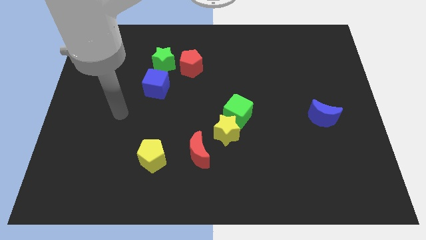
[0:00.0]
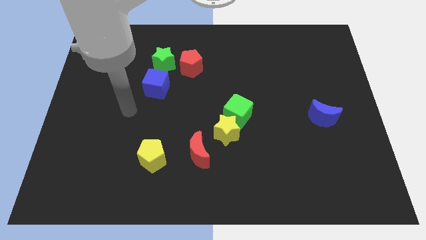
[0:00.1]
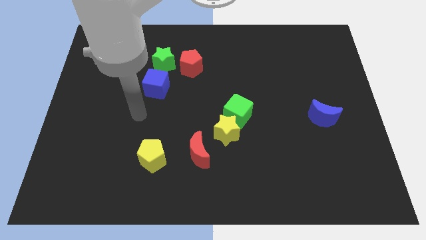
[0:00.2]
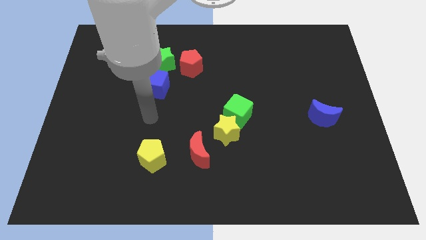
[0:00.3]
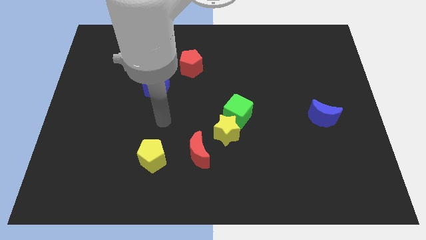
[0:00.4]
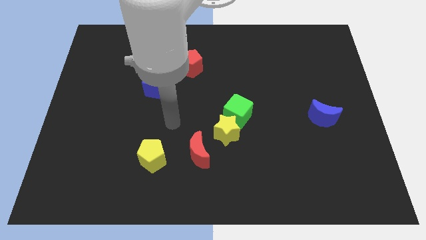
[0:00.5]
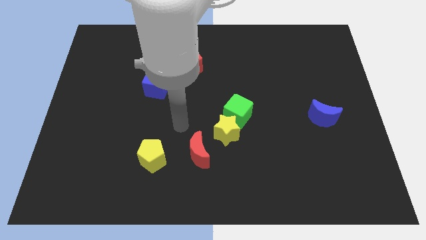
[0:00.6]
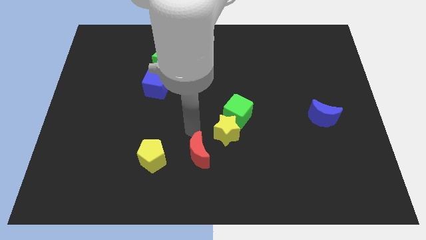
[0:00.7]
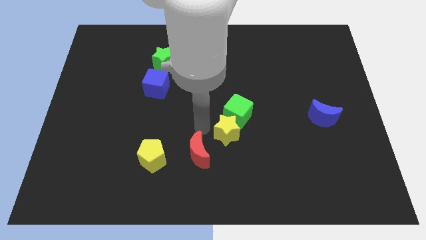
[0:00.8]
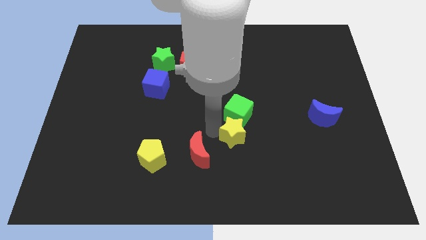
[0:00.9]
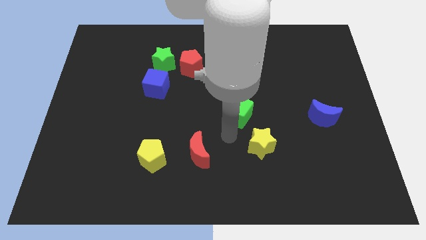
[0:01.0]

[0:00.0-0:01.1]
pull the green cube apart from the yellow star

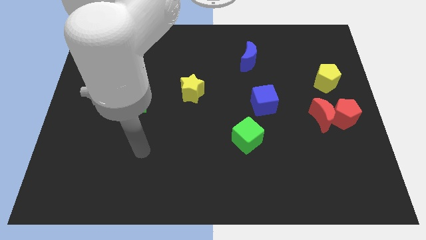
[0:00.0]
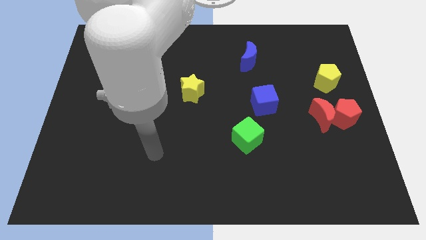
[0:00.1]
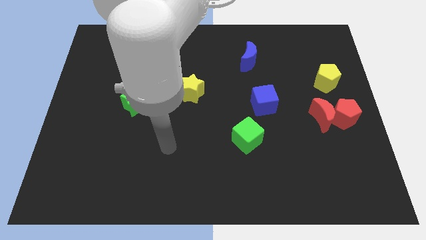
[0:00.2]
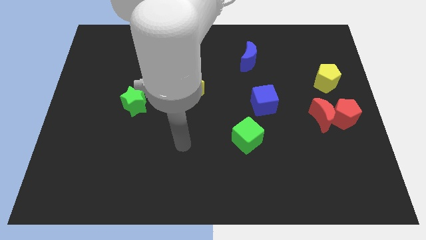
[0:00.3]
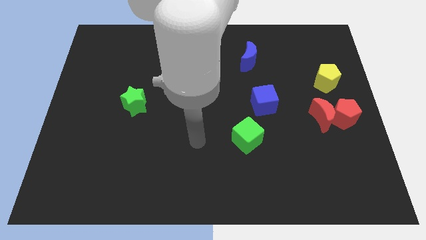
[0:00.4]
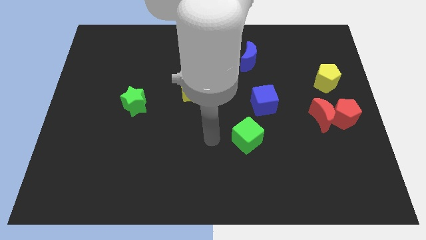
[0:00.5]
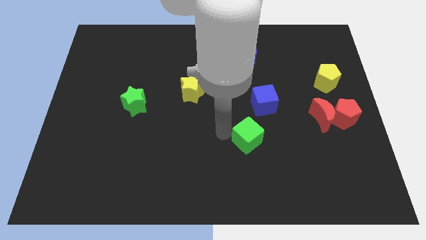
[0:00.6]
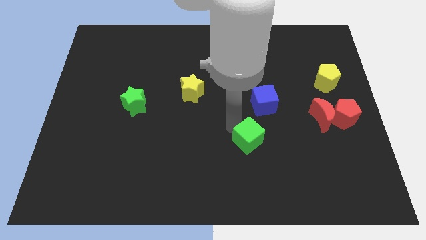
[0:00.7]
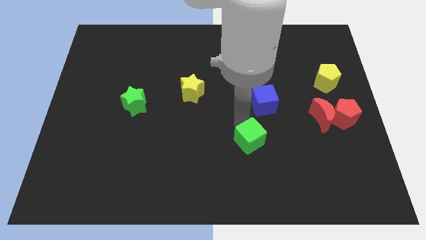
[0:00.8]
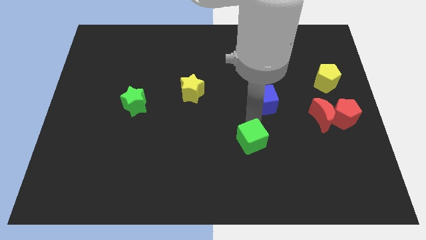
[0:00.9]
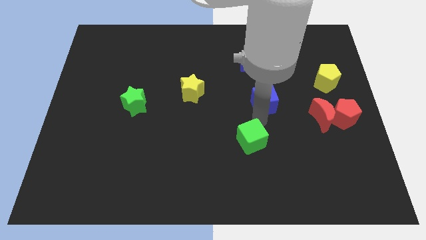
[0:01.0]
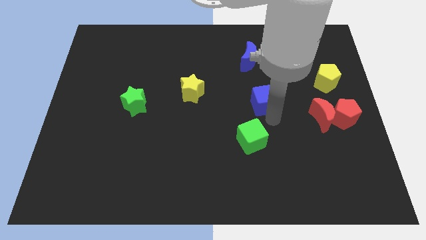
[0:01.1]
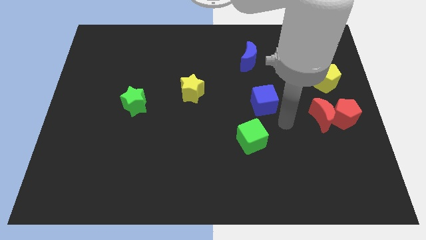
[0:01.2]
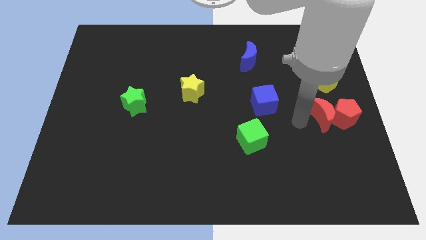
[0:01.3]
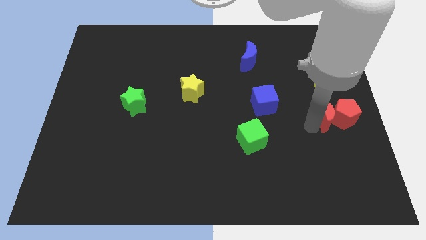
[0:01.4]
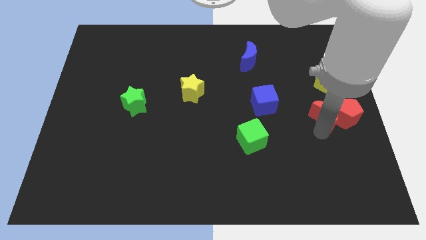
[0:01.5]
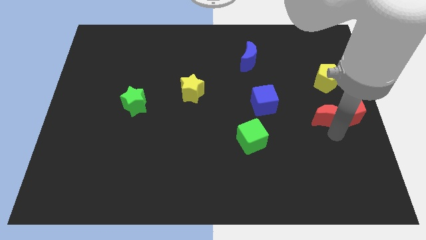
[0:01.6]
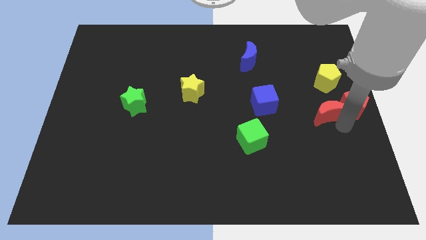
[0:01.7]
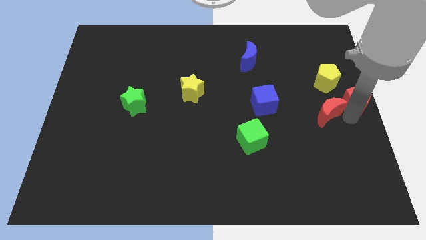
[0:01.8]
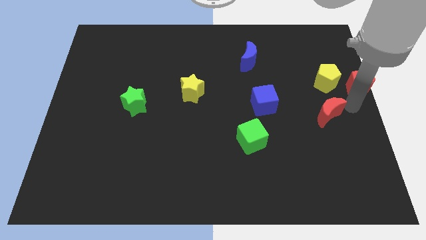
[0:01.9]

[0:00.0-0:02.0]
pull the red moon apart from the red pentagon

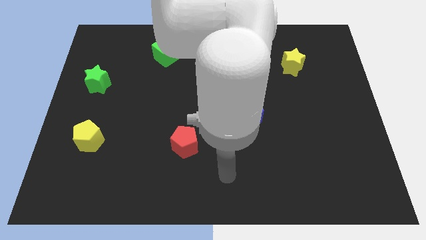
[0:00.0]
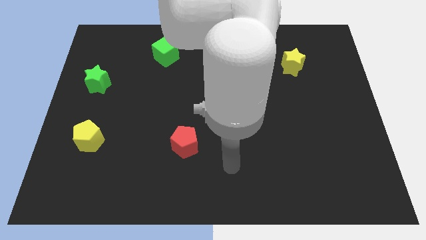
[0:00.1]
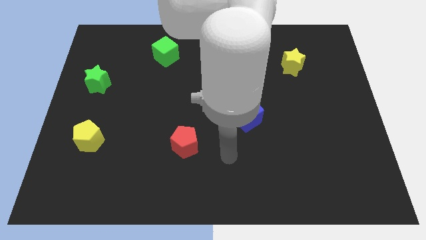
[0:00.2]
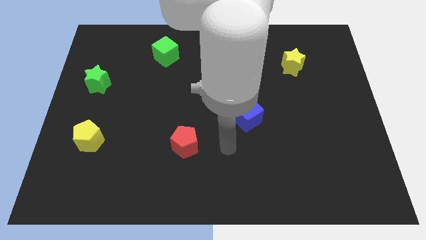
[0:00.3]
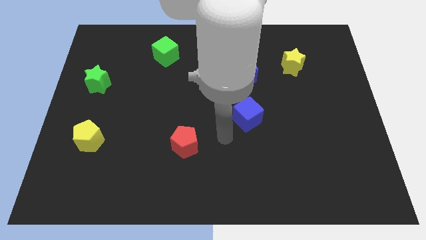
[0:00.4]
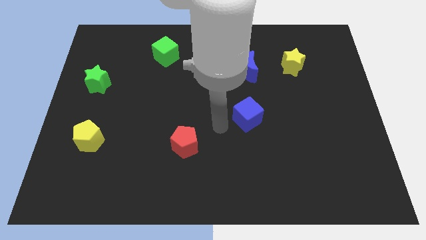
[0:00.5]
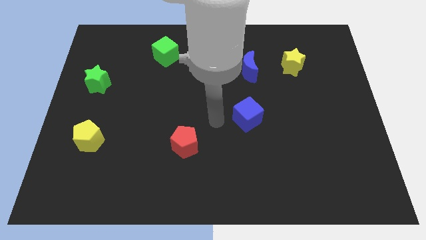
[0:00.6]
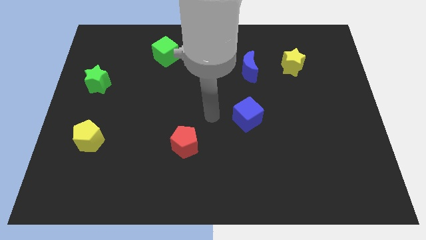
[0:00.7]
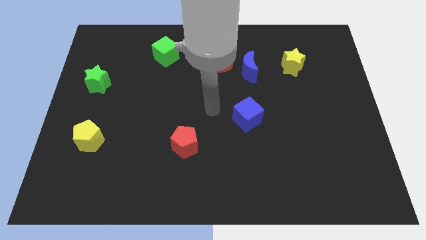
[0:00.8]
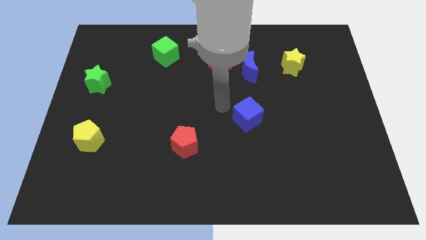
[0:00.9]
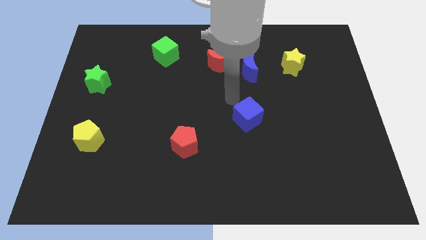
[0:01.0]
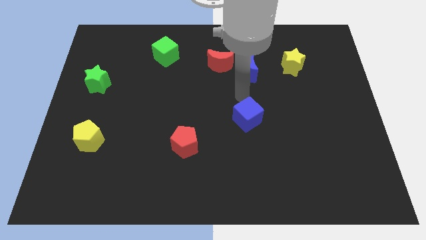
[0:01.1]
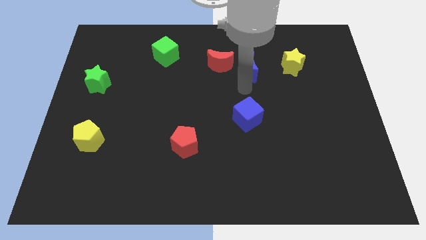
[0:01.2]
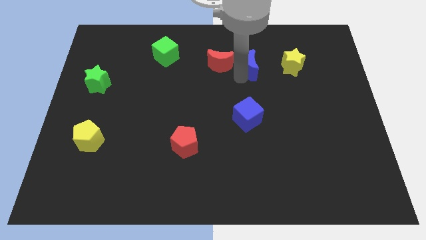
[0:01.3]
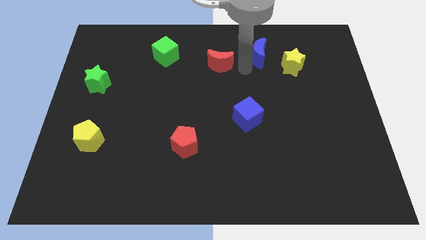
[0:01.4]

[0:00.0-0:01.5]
move the red moon away from the blue moon

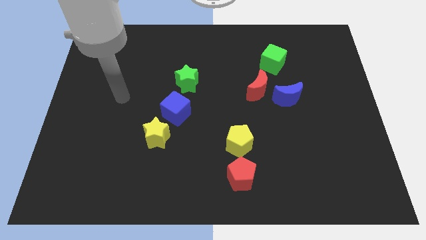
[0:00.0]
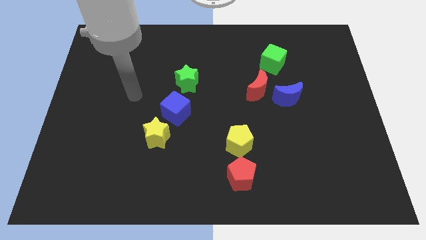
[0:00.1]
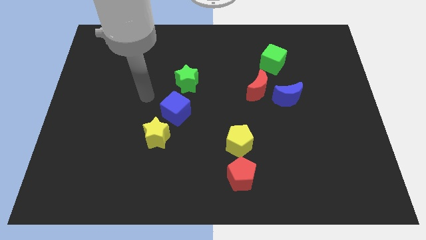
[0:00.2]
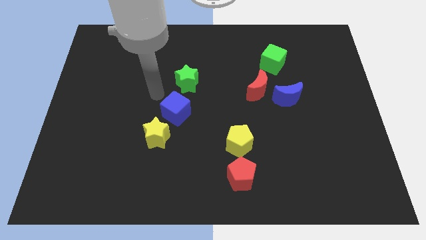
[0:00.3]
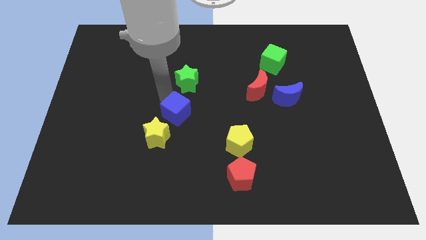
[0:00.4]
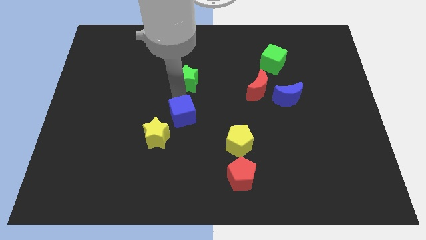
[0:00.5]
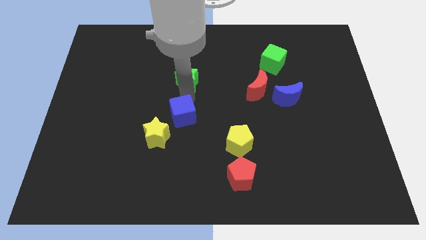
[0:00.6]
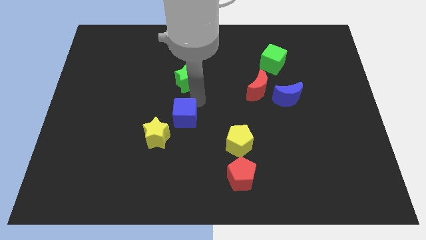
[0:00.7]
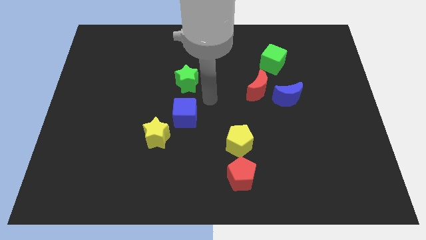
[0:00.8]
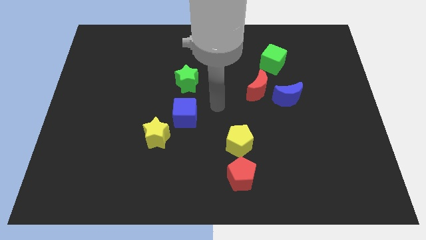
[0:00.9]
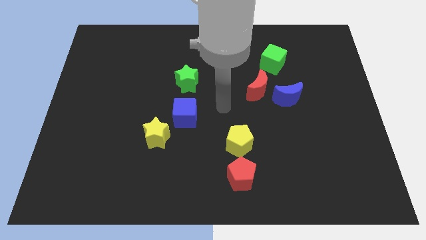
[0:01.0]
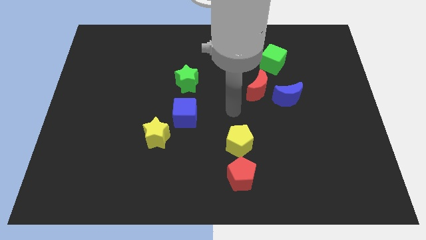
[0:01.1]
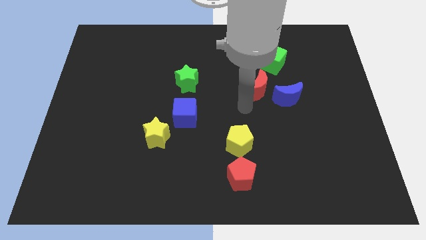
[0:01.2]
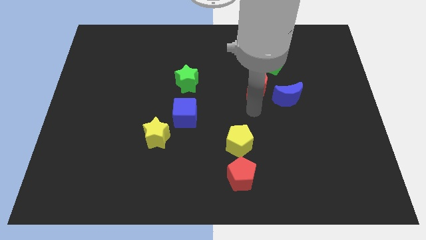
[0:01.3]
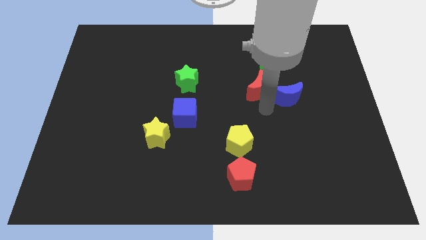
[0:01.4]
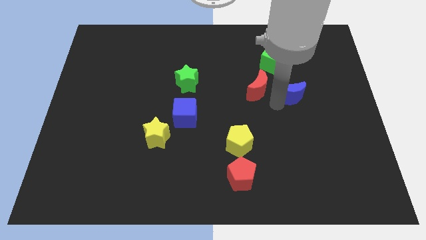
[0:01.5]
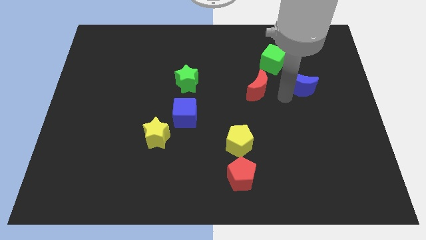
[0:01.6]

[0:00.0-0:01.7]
pull the red moon apart from the blue moon

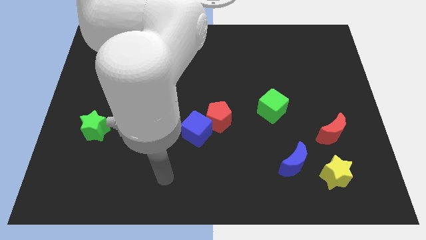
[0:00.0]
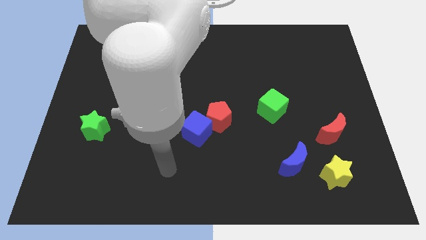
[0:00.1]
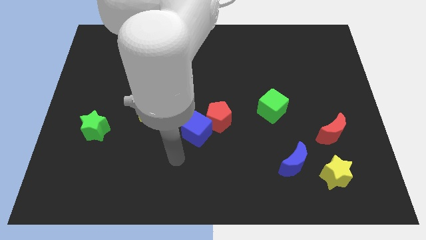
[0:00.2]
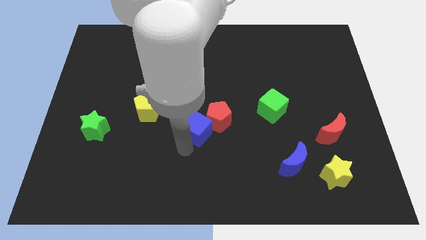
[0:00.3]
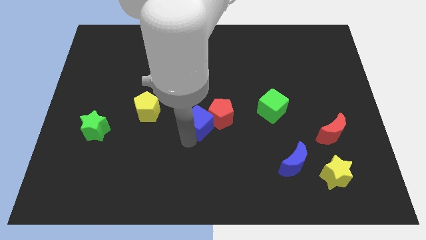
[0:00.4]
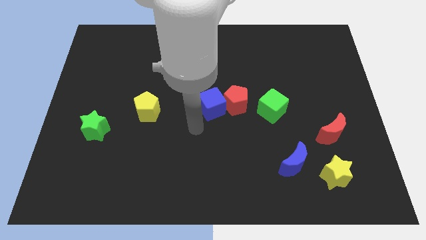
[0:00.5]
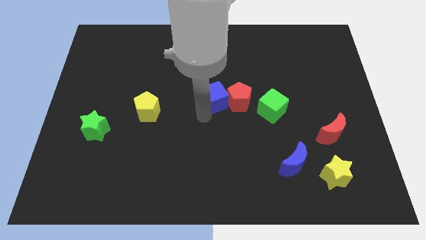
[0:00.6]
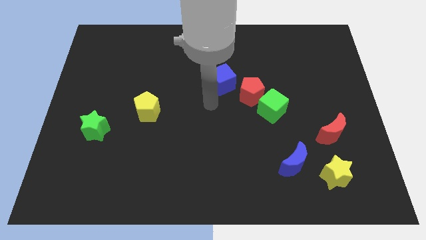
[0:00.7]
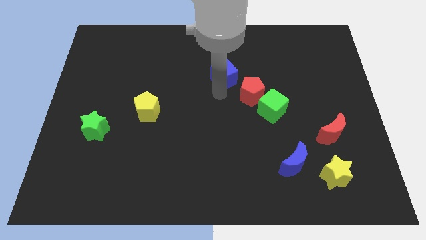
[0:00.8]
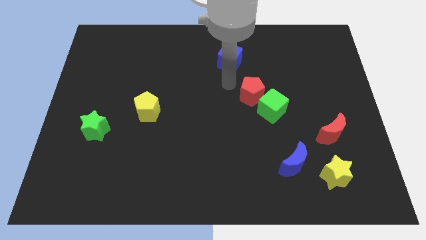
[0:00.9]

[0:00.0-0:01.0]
separate the red pentagon from the blue cube

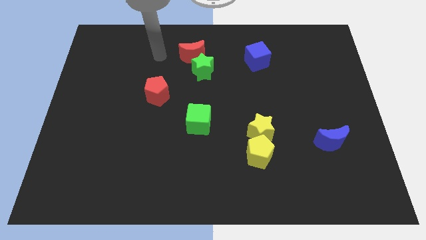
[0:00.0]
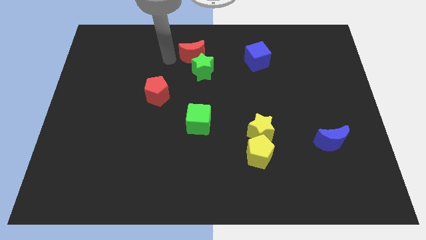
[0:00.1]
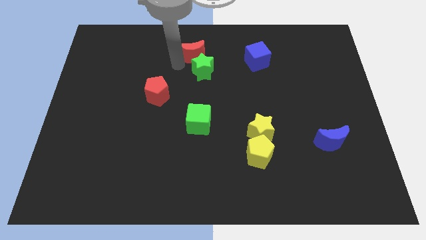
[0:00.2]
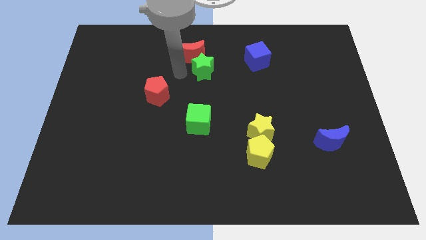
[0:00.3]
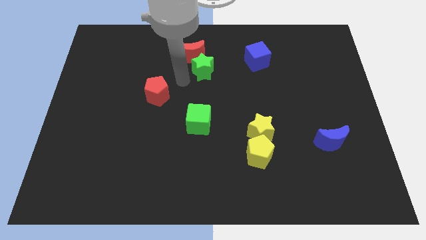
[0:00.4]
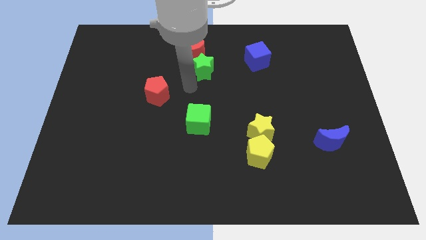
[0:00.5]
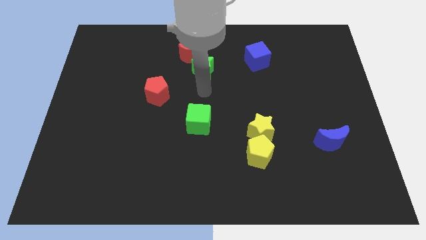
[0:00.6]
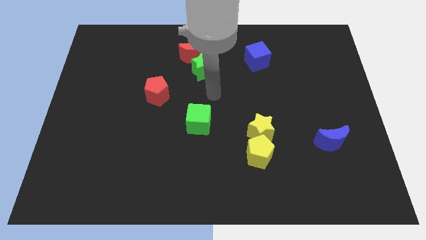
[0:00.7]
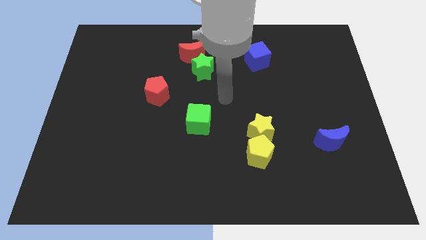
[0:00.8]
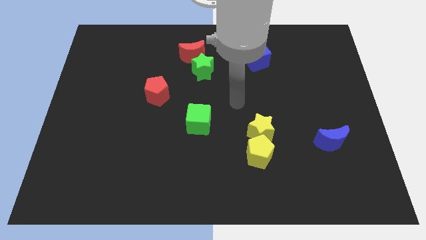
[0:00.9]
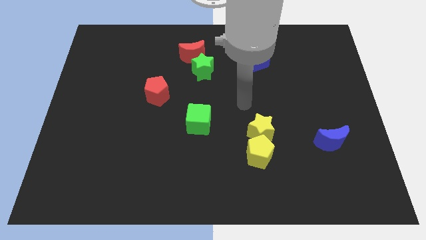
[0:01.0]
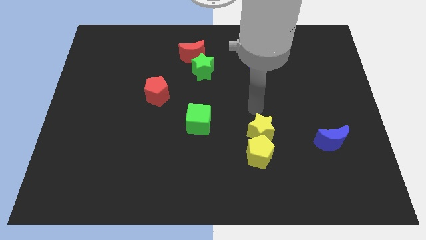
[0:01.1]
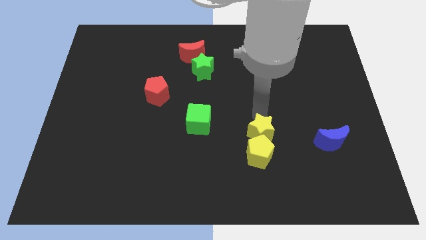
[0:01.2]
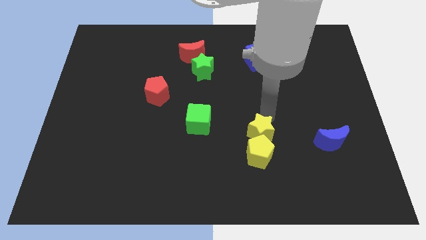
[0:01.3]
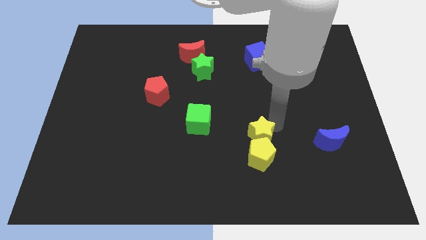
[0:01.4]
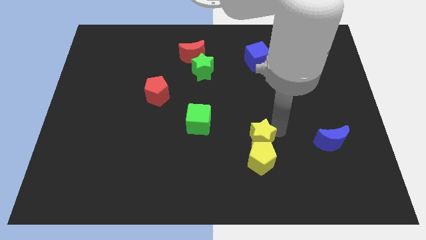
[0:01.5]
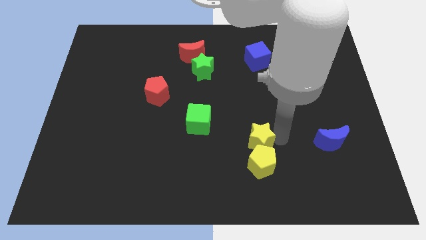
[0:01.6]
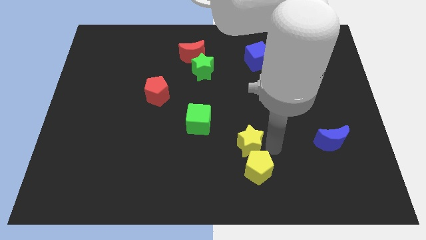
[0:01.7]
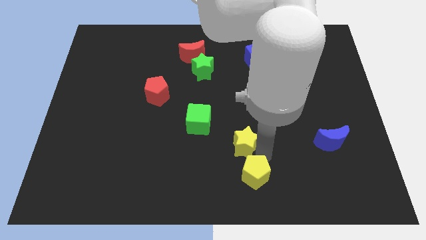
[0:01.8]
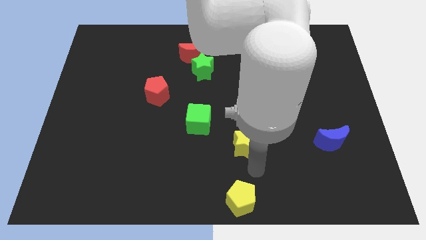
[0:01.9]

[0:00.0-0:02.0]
pull the yellow star apart from the yellow pentagon

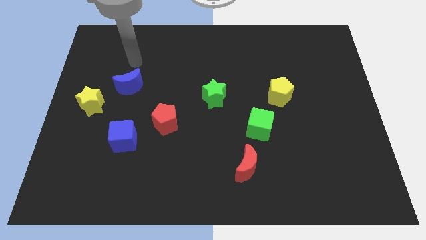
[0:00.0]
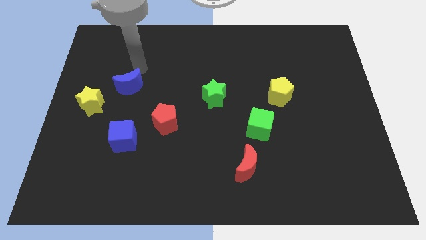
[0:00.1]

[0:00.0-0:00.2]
pull the red pentagon apart from the blue cube
